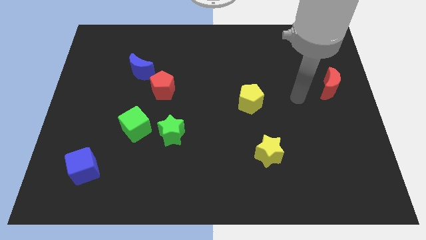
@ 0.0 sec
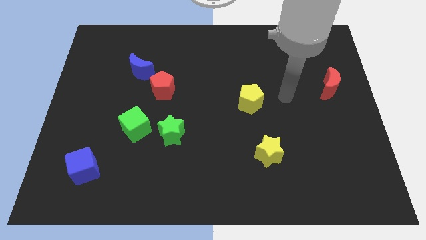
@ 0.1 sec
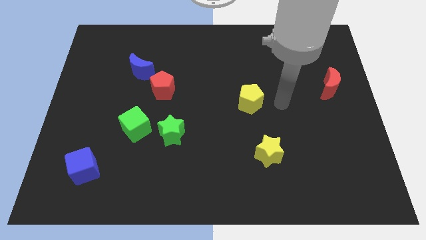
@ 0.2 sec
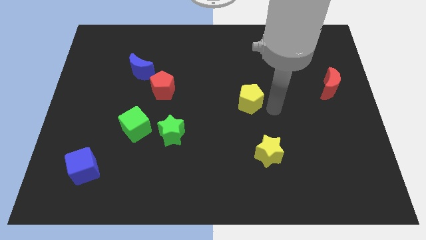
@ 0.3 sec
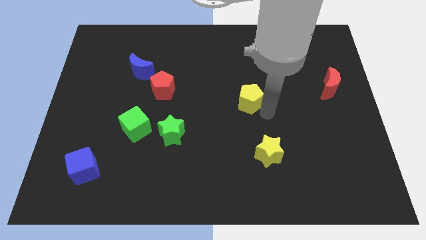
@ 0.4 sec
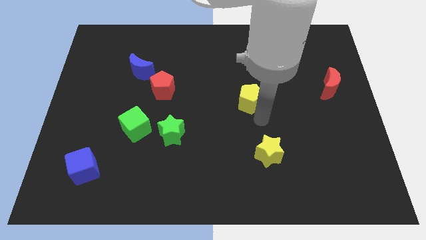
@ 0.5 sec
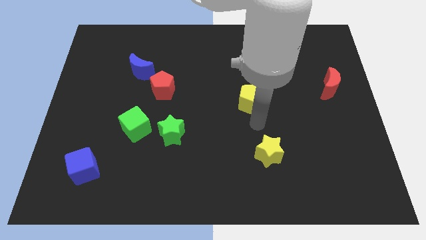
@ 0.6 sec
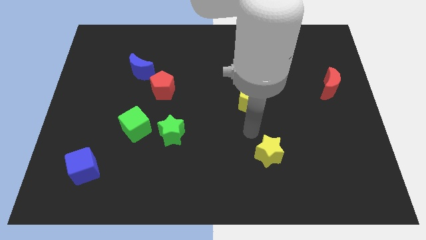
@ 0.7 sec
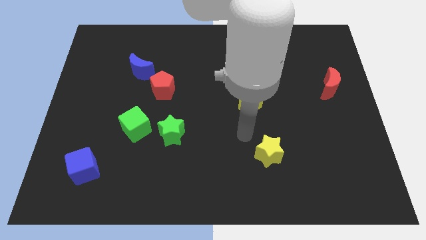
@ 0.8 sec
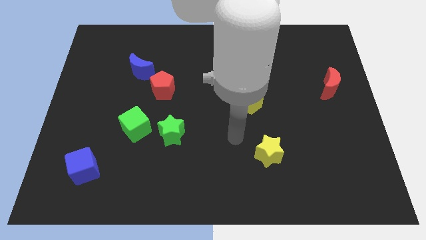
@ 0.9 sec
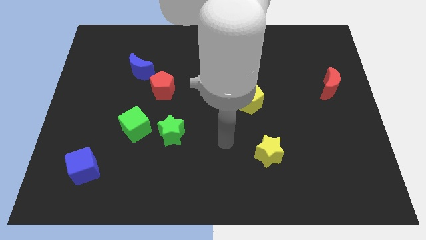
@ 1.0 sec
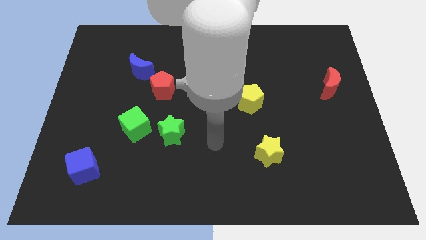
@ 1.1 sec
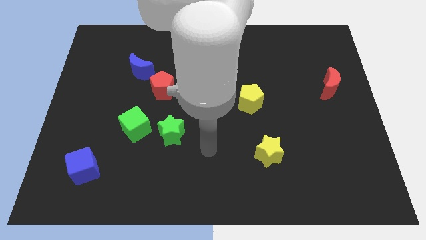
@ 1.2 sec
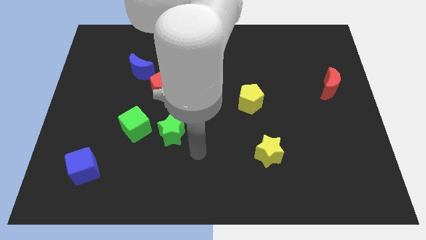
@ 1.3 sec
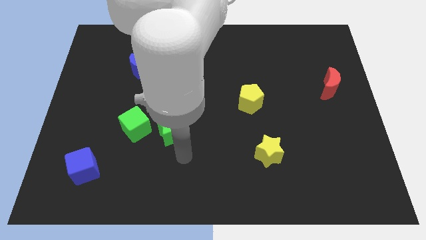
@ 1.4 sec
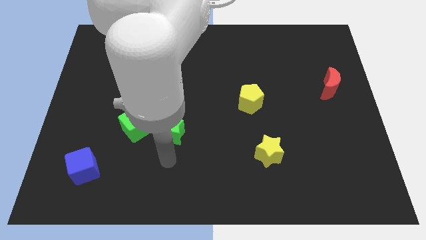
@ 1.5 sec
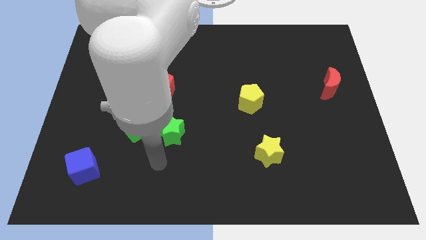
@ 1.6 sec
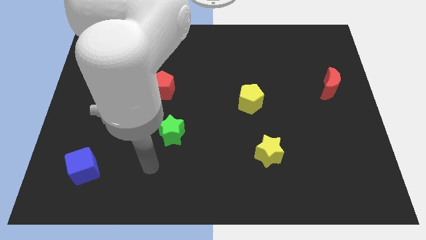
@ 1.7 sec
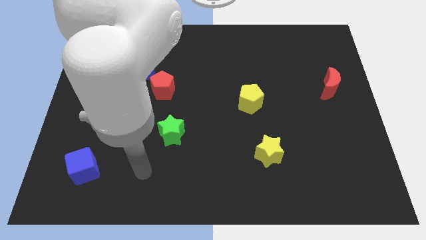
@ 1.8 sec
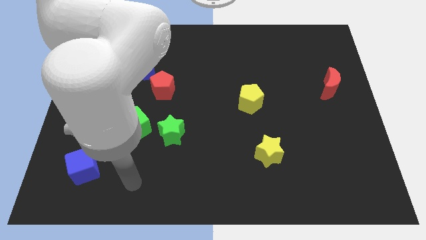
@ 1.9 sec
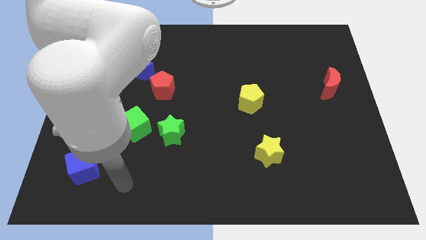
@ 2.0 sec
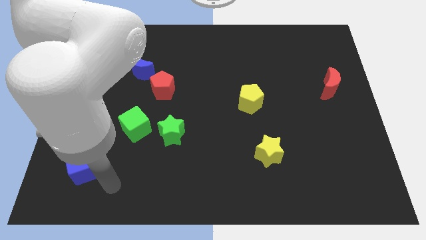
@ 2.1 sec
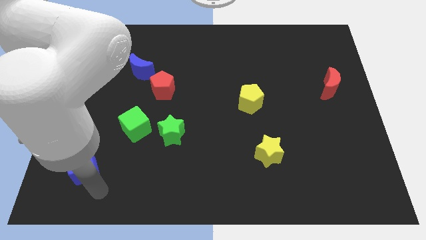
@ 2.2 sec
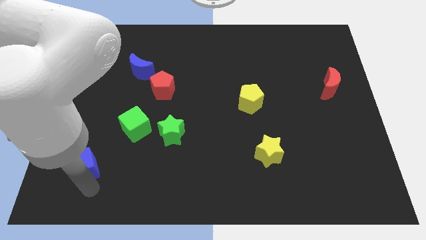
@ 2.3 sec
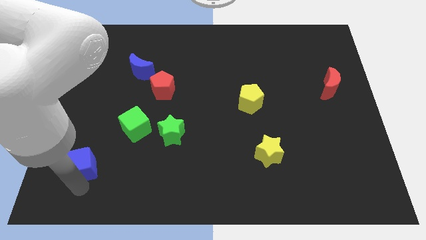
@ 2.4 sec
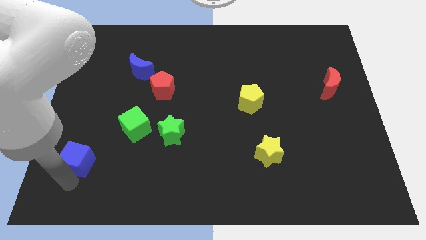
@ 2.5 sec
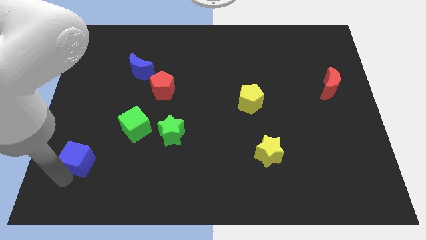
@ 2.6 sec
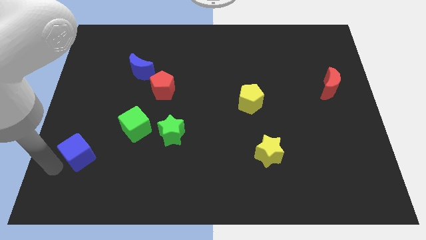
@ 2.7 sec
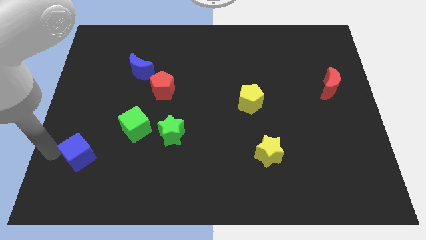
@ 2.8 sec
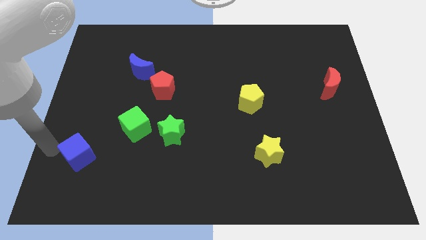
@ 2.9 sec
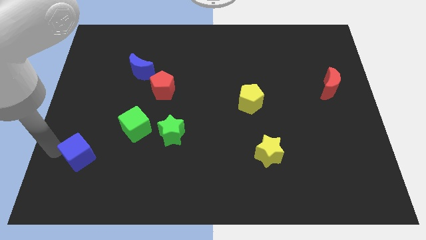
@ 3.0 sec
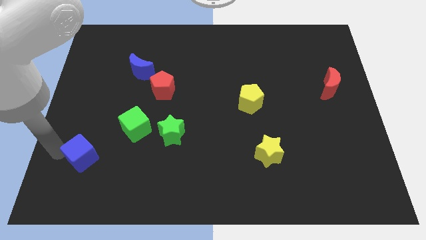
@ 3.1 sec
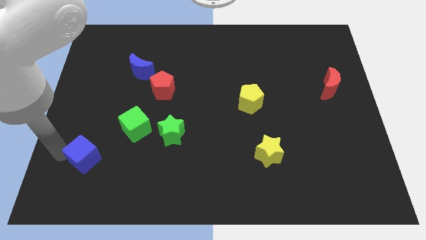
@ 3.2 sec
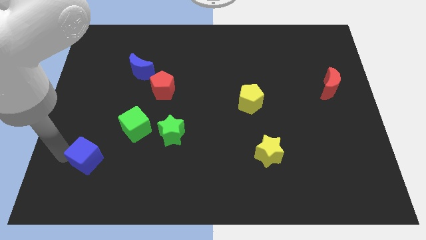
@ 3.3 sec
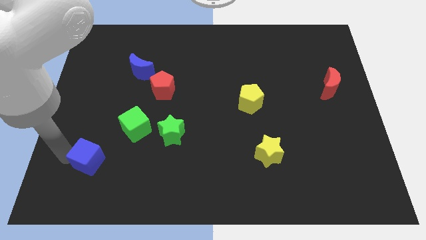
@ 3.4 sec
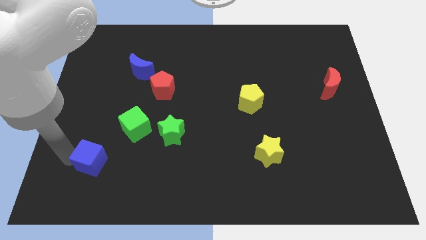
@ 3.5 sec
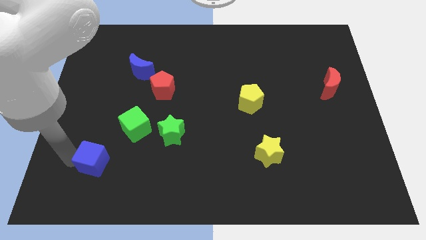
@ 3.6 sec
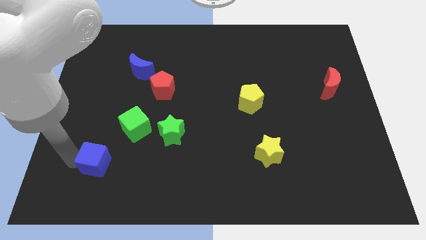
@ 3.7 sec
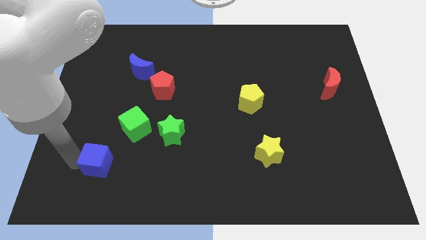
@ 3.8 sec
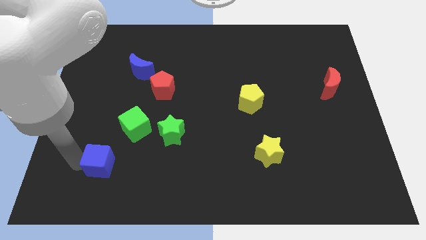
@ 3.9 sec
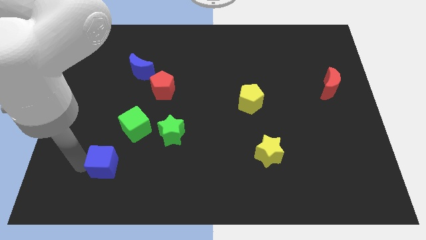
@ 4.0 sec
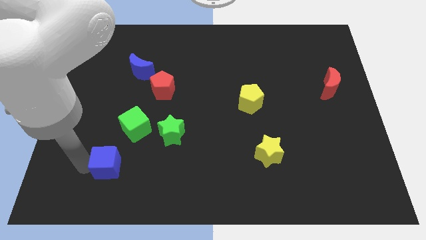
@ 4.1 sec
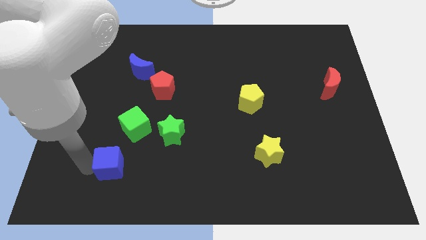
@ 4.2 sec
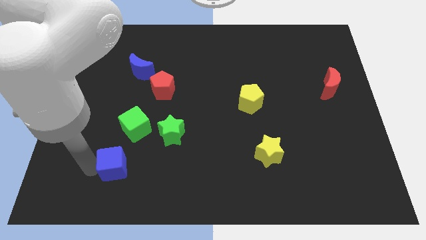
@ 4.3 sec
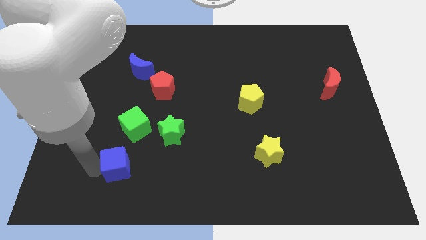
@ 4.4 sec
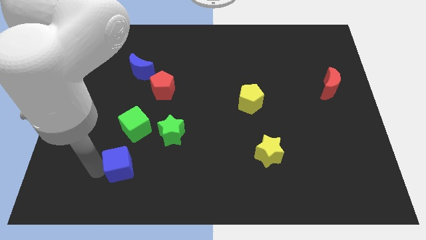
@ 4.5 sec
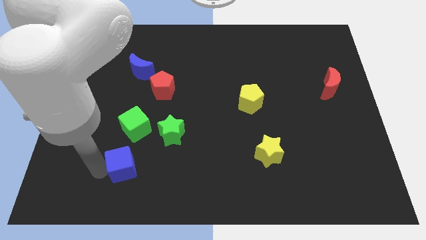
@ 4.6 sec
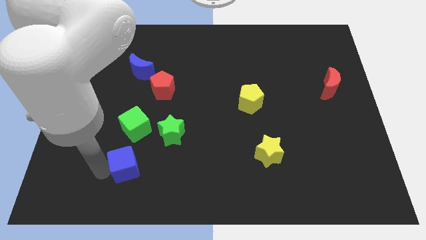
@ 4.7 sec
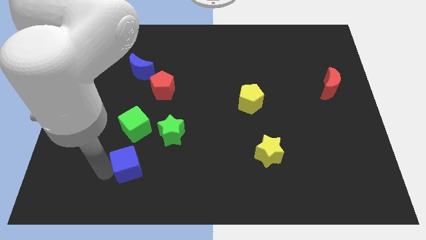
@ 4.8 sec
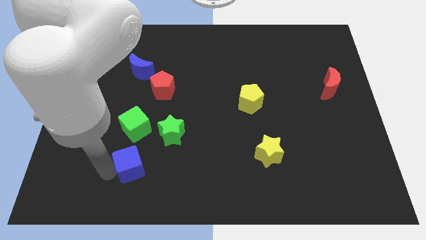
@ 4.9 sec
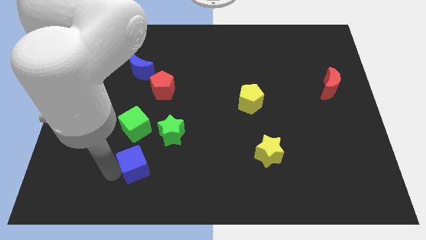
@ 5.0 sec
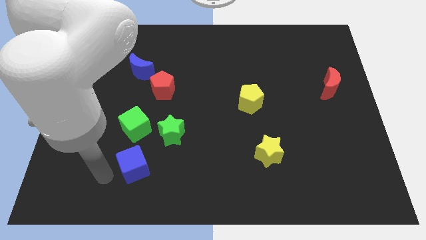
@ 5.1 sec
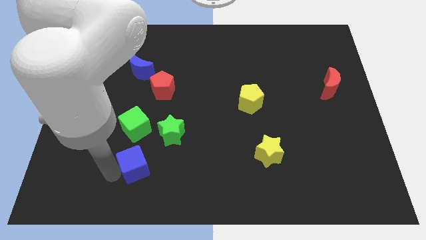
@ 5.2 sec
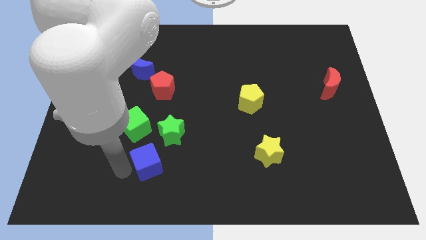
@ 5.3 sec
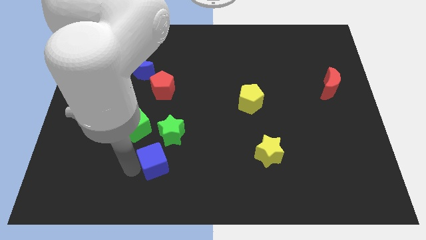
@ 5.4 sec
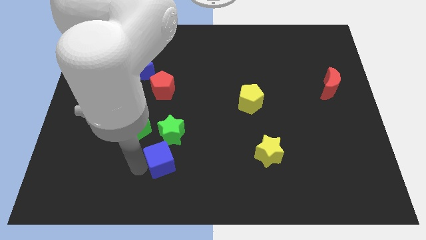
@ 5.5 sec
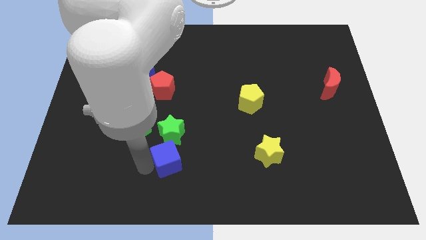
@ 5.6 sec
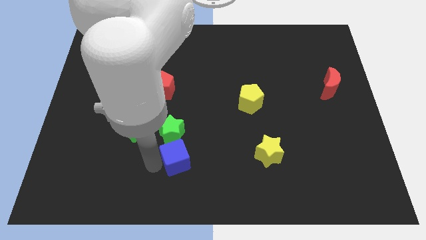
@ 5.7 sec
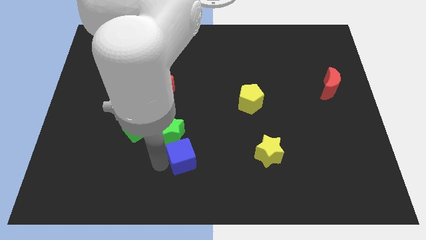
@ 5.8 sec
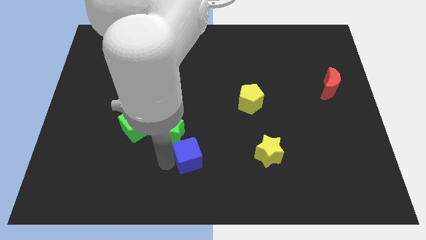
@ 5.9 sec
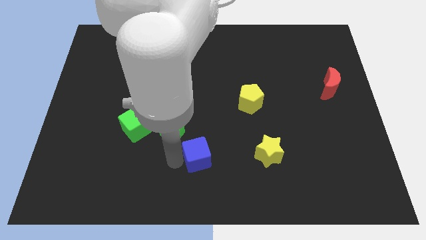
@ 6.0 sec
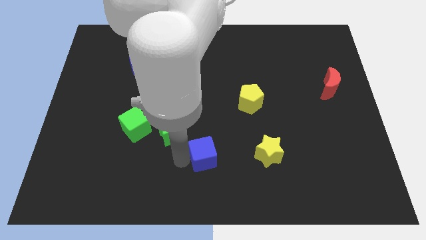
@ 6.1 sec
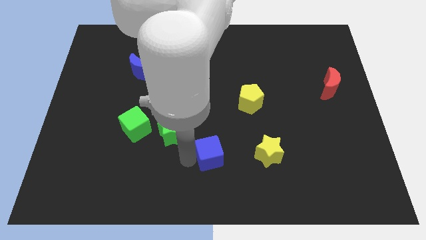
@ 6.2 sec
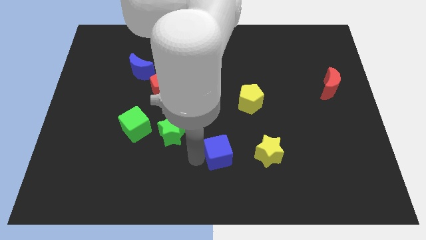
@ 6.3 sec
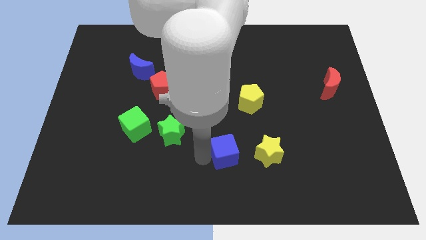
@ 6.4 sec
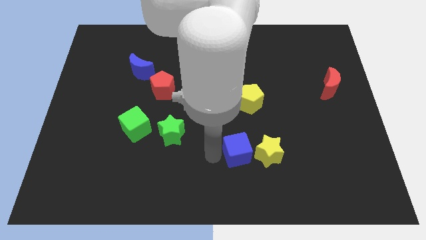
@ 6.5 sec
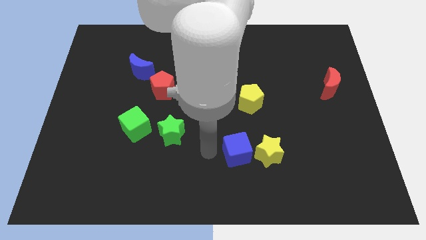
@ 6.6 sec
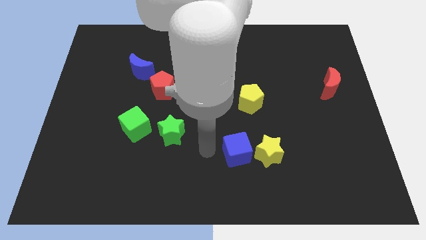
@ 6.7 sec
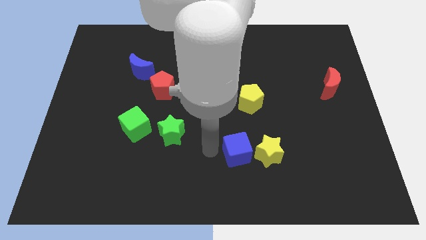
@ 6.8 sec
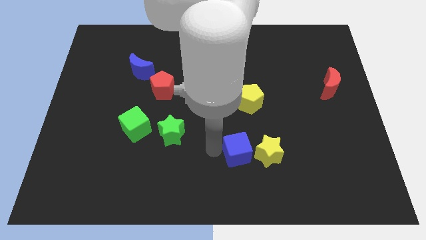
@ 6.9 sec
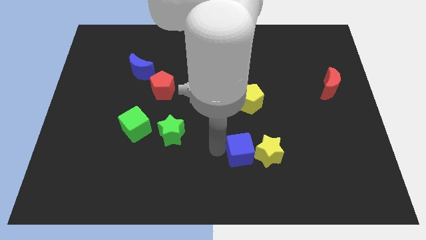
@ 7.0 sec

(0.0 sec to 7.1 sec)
push the blue cube close to the yellow star
